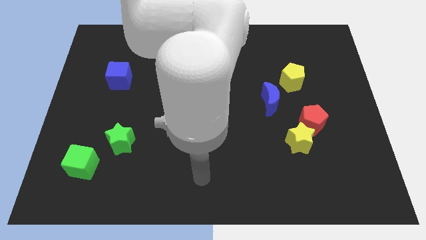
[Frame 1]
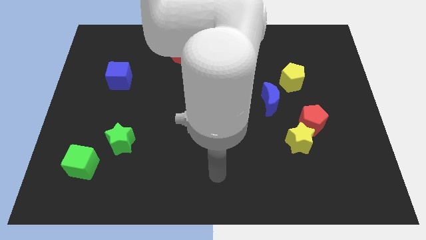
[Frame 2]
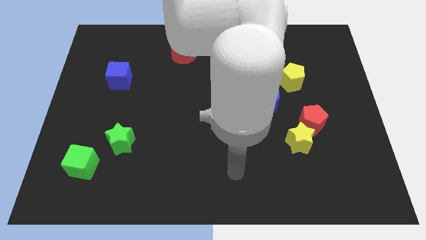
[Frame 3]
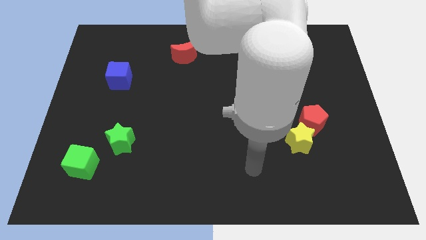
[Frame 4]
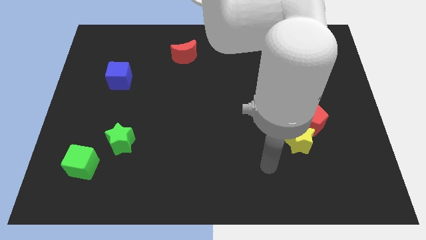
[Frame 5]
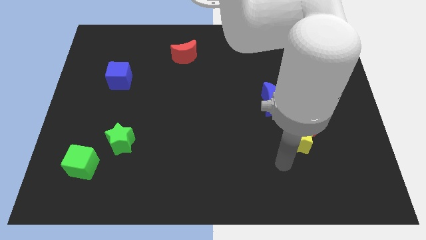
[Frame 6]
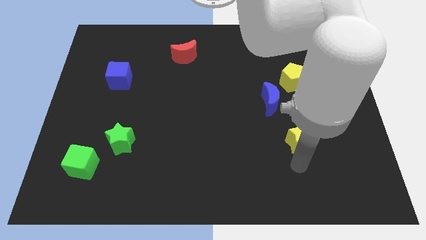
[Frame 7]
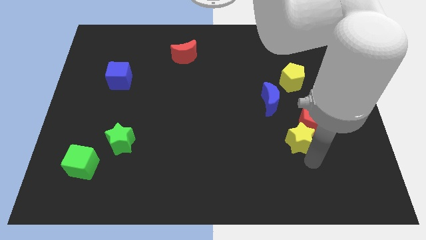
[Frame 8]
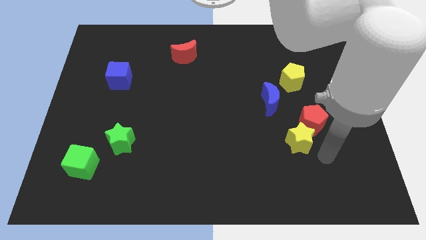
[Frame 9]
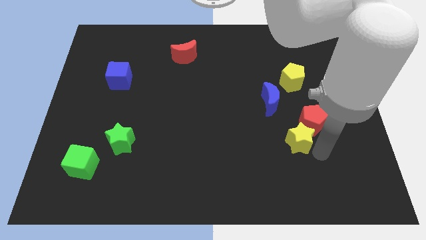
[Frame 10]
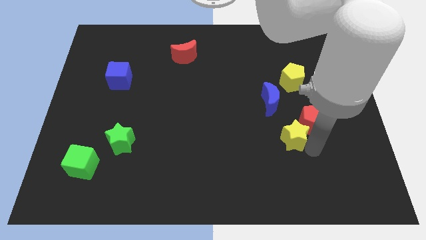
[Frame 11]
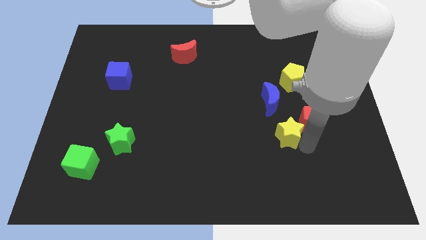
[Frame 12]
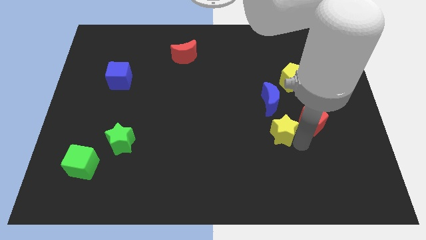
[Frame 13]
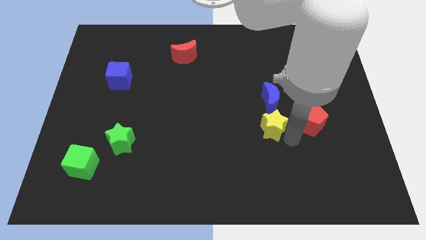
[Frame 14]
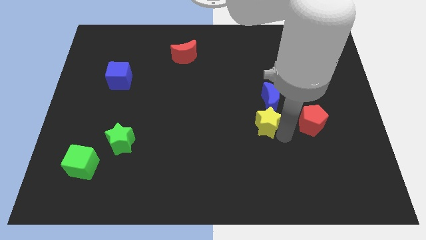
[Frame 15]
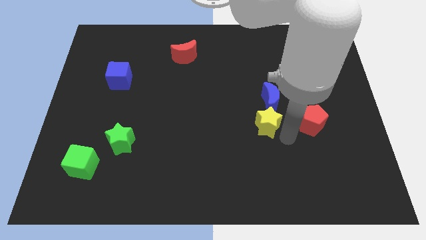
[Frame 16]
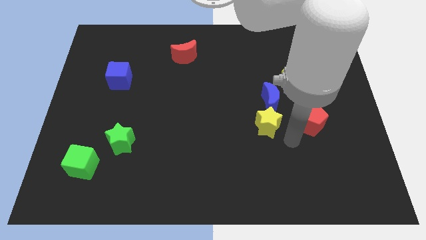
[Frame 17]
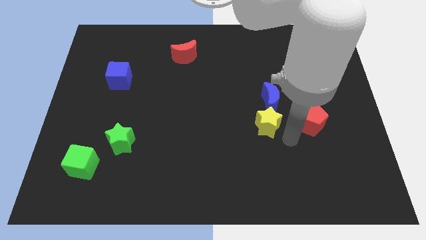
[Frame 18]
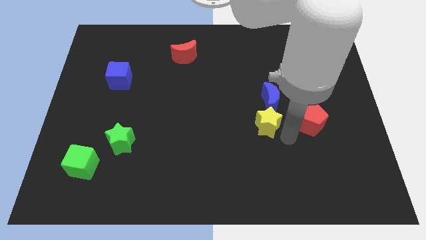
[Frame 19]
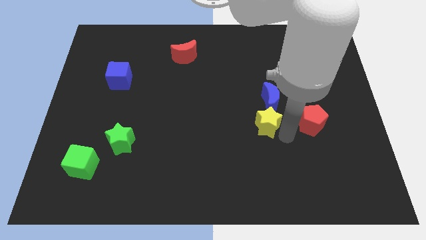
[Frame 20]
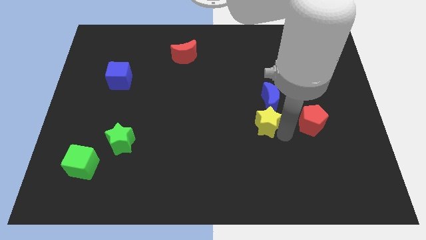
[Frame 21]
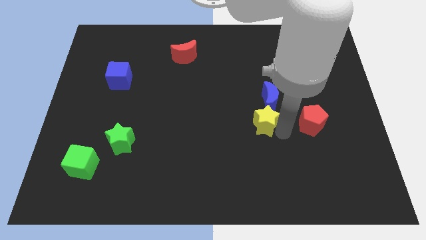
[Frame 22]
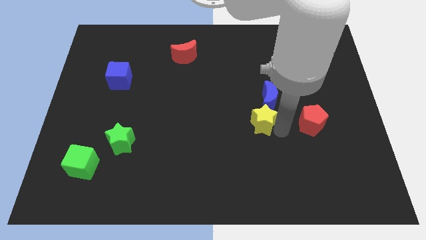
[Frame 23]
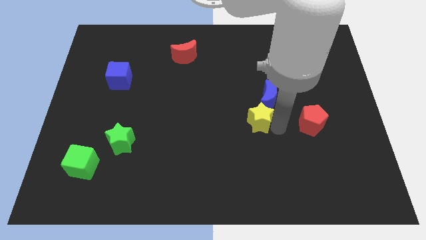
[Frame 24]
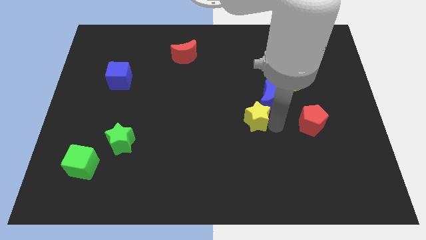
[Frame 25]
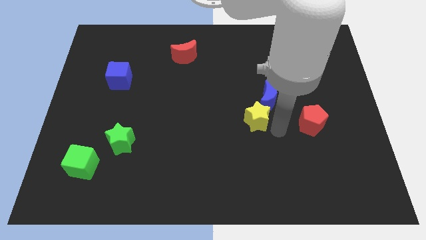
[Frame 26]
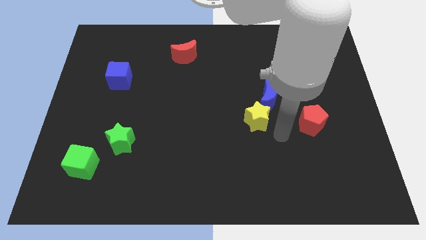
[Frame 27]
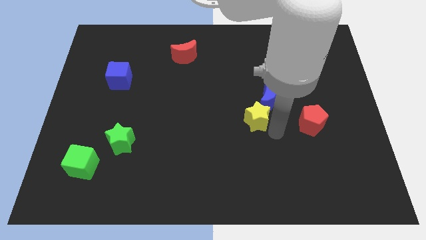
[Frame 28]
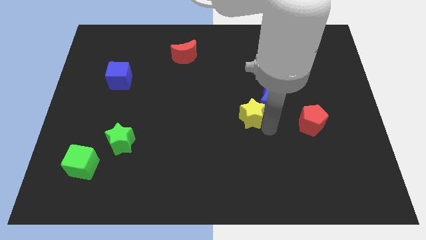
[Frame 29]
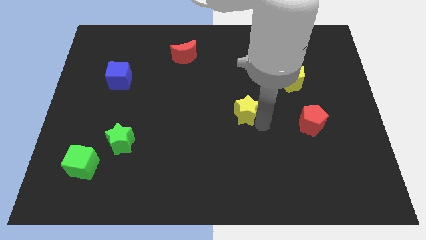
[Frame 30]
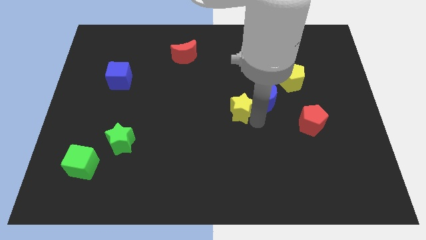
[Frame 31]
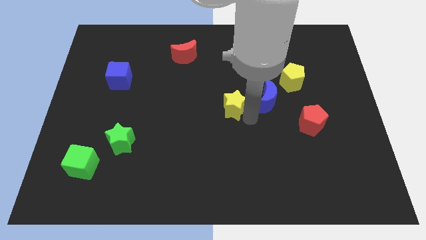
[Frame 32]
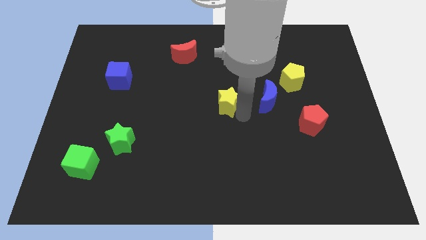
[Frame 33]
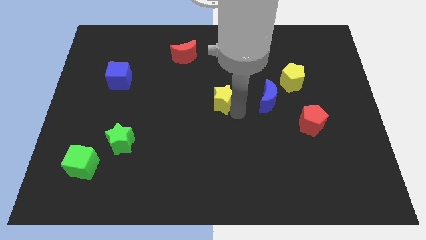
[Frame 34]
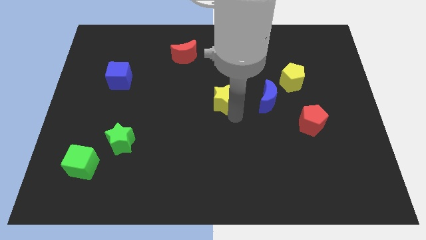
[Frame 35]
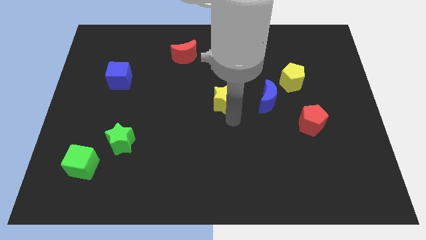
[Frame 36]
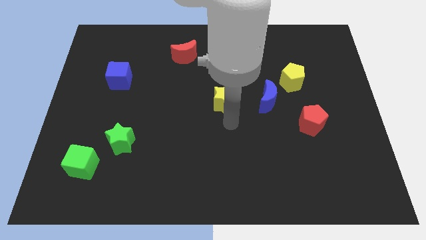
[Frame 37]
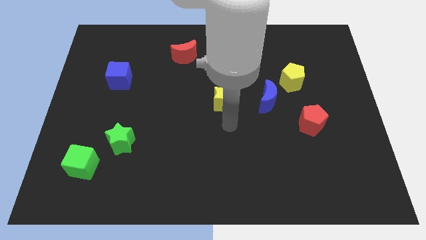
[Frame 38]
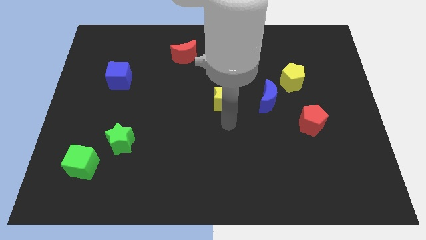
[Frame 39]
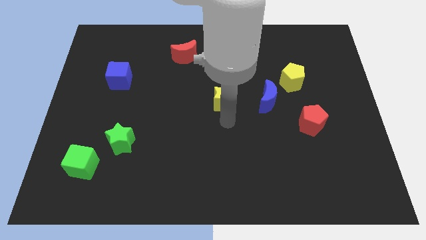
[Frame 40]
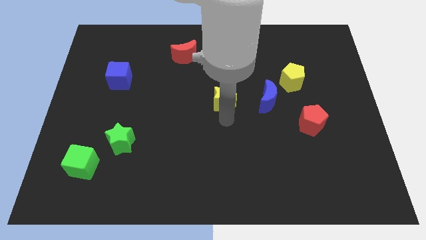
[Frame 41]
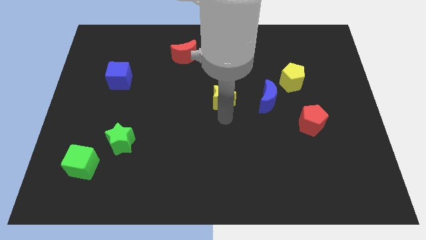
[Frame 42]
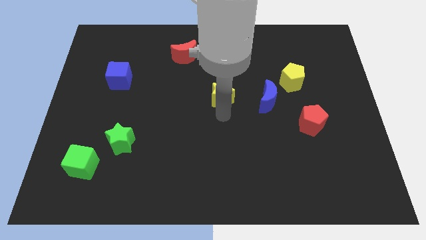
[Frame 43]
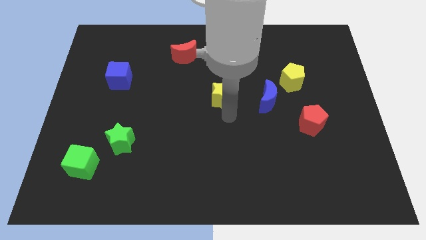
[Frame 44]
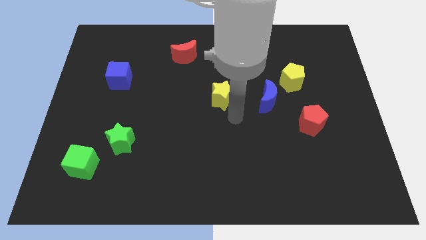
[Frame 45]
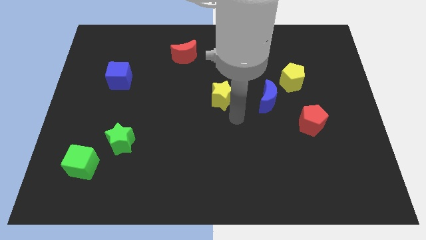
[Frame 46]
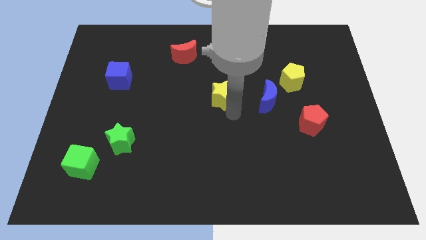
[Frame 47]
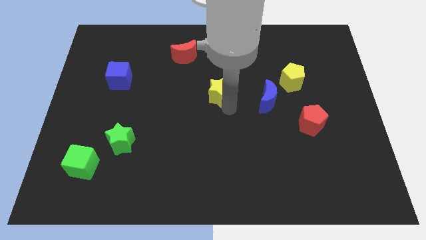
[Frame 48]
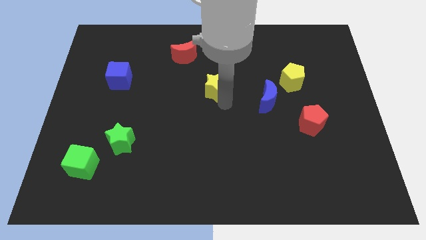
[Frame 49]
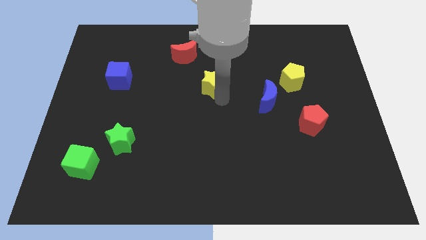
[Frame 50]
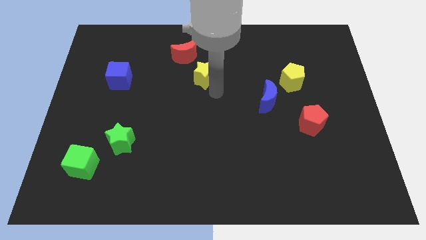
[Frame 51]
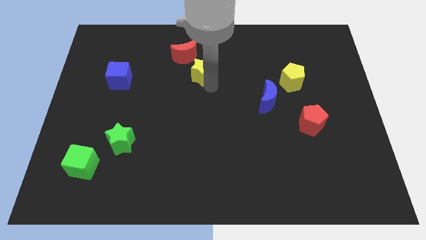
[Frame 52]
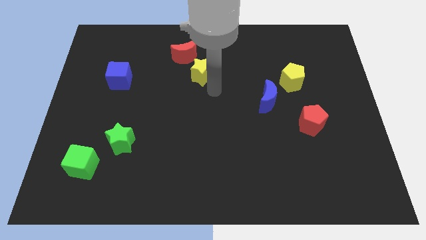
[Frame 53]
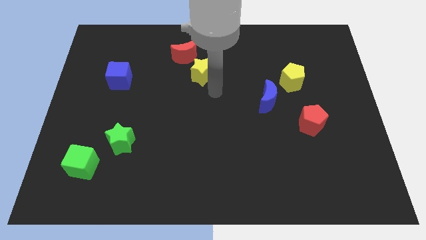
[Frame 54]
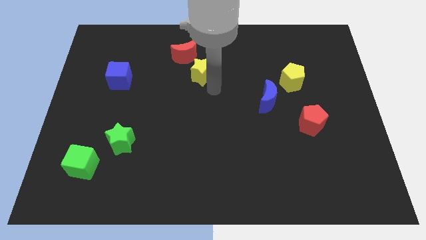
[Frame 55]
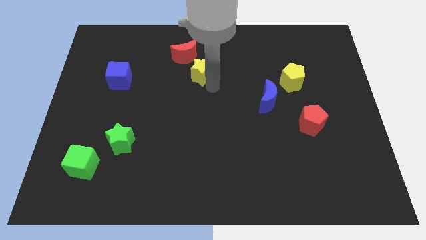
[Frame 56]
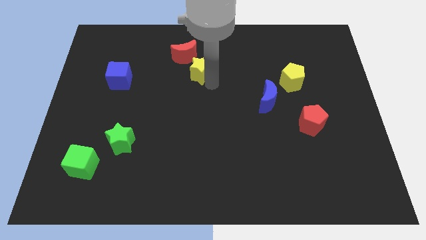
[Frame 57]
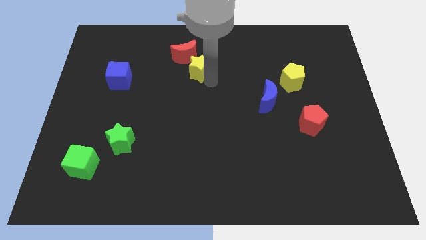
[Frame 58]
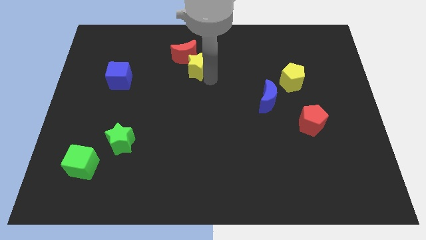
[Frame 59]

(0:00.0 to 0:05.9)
slide the yellow star next to the red moon

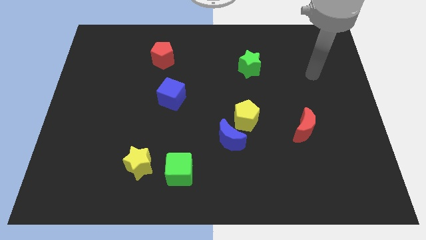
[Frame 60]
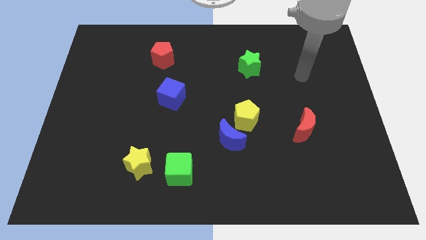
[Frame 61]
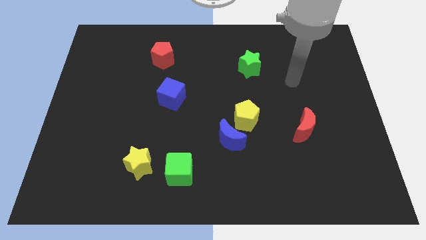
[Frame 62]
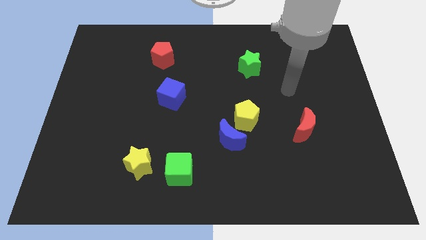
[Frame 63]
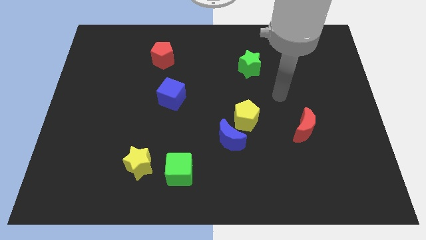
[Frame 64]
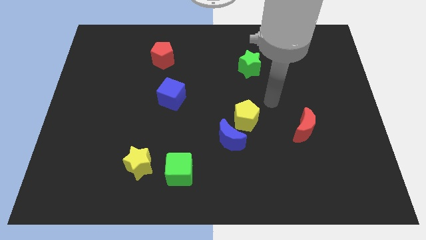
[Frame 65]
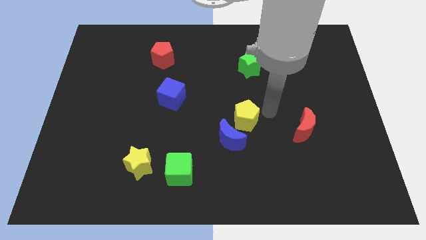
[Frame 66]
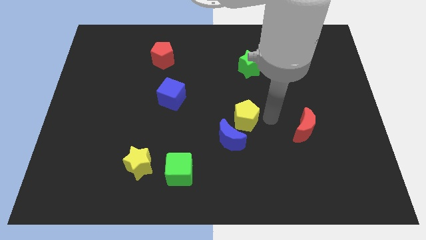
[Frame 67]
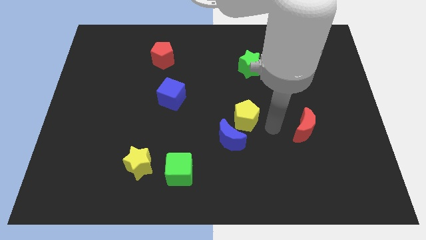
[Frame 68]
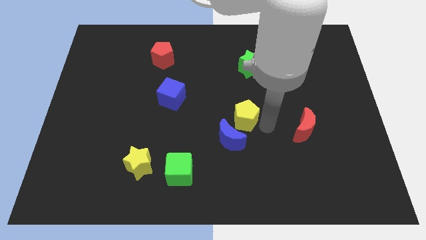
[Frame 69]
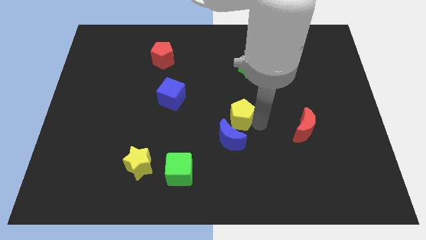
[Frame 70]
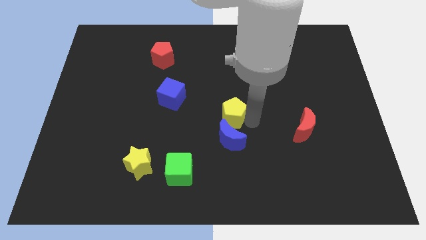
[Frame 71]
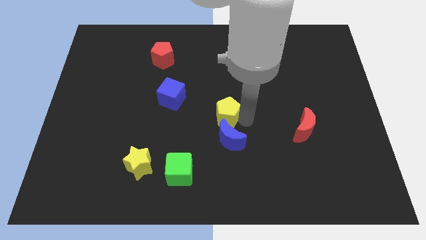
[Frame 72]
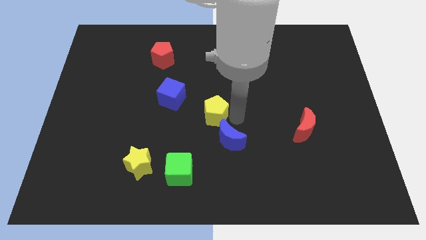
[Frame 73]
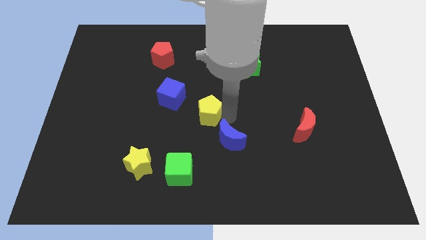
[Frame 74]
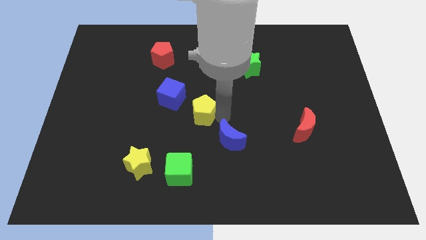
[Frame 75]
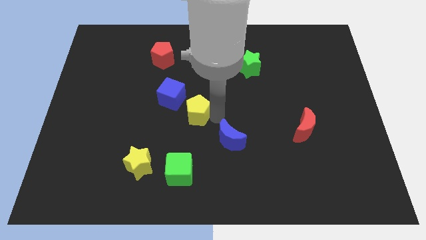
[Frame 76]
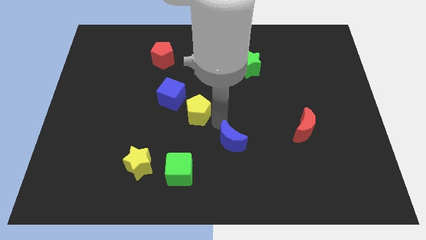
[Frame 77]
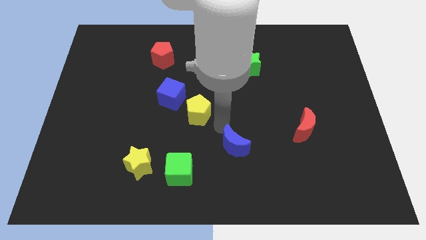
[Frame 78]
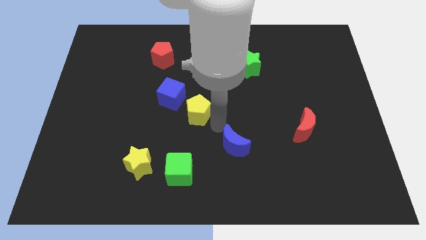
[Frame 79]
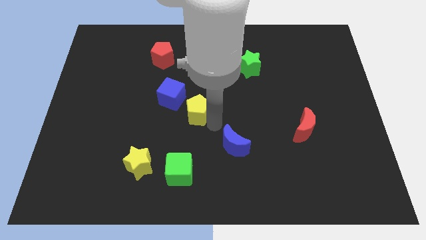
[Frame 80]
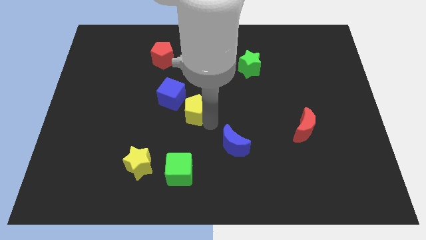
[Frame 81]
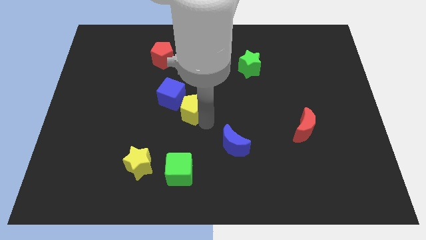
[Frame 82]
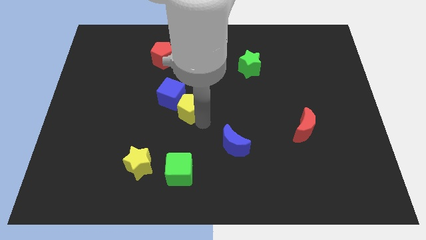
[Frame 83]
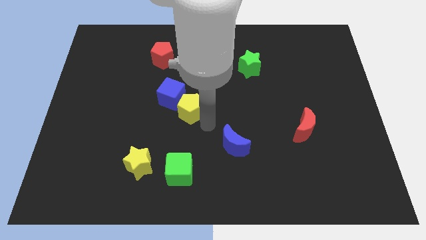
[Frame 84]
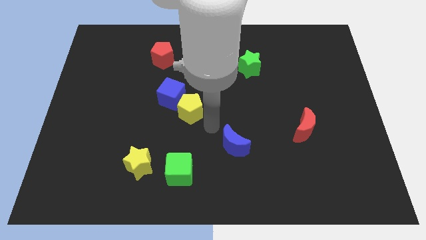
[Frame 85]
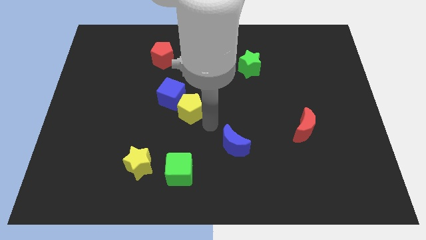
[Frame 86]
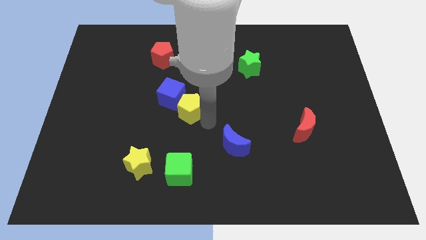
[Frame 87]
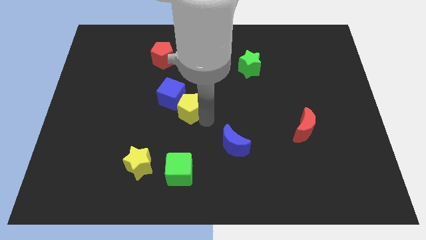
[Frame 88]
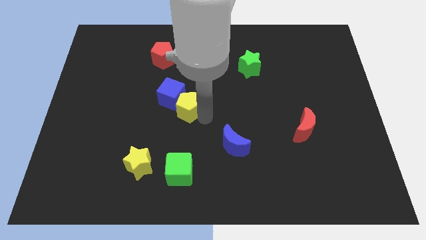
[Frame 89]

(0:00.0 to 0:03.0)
slide the yellow pentagon towards the blue cube
